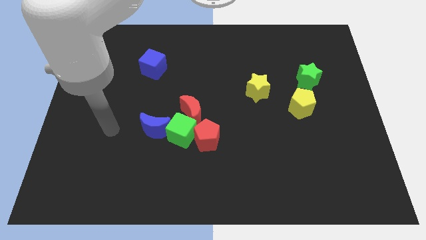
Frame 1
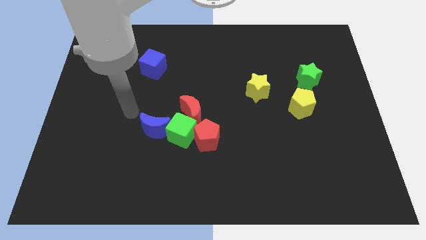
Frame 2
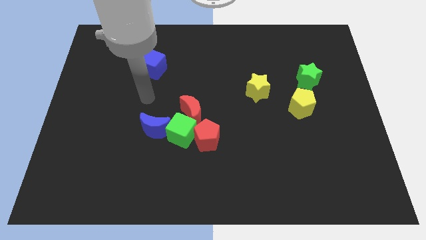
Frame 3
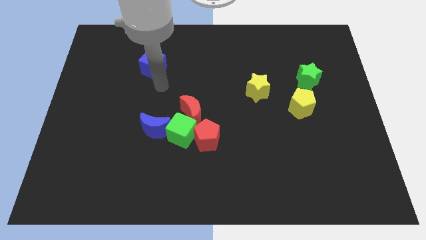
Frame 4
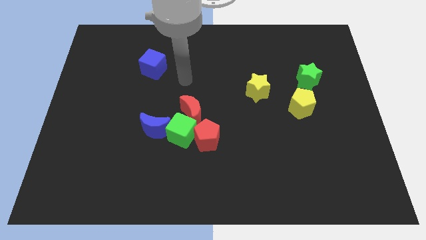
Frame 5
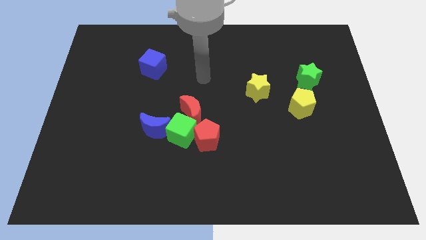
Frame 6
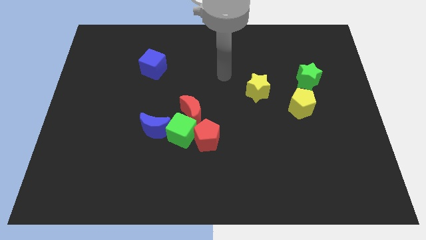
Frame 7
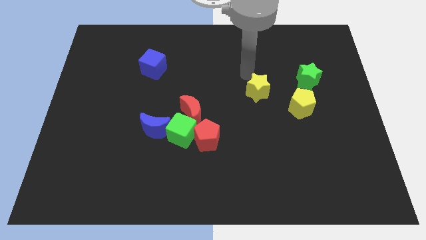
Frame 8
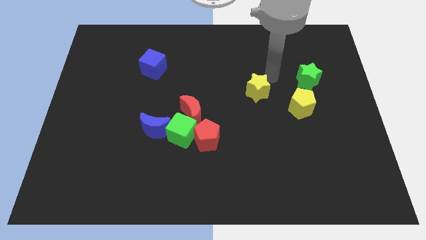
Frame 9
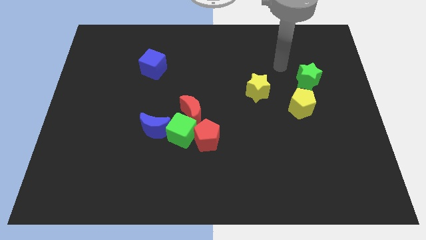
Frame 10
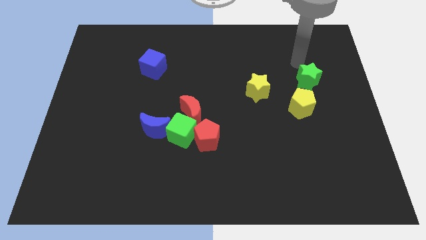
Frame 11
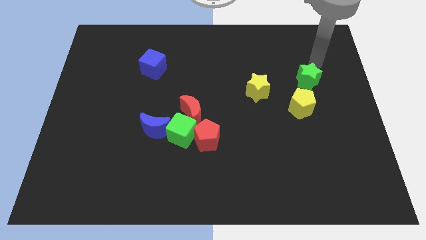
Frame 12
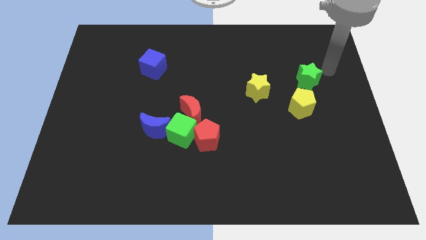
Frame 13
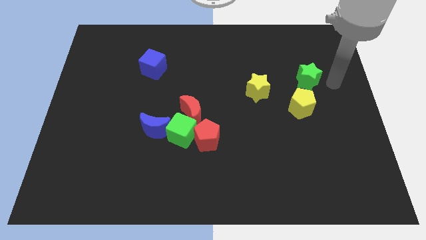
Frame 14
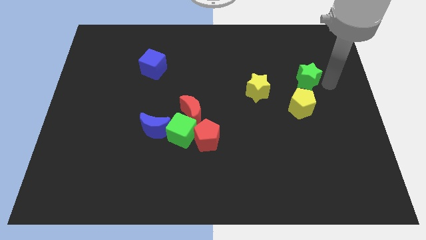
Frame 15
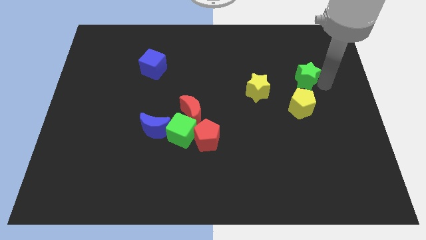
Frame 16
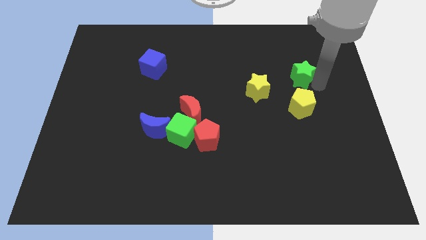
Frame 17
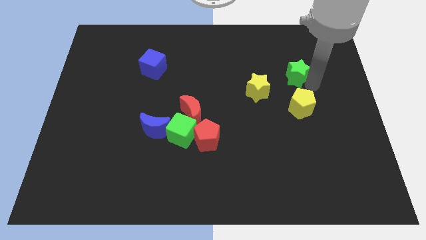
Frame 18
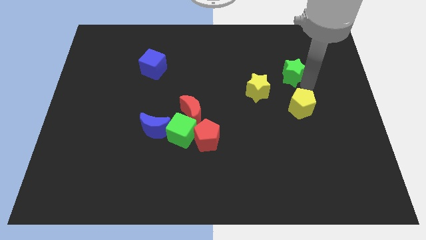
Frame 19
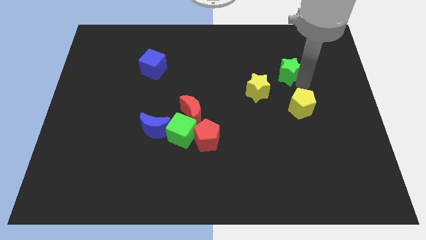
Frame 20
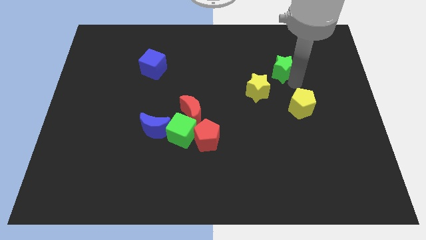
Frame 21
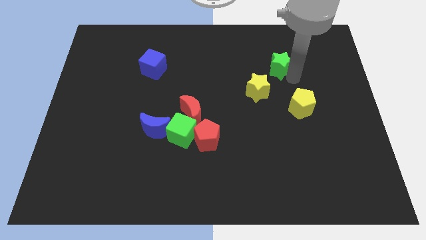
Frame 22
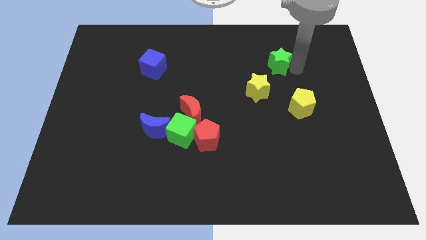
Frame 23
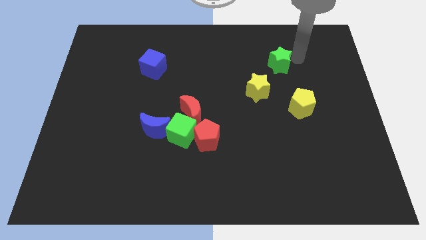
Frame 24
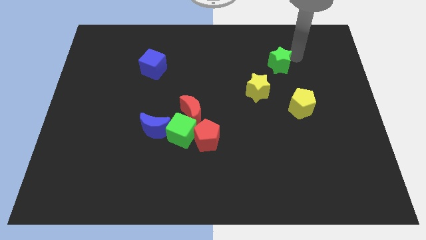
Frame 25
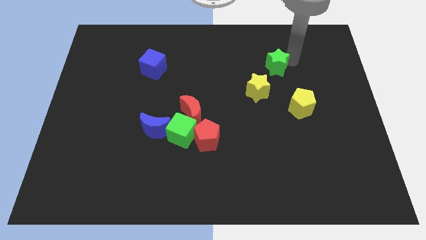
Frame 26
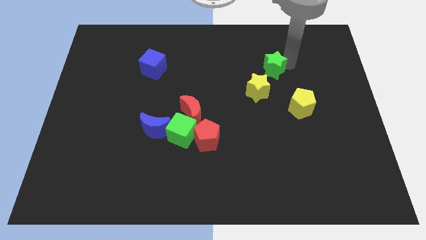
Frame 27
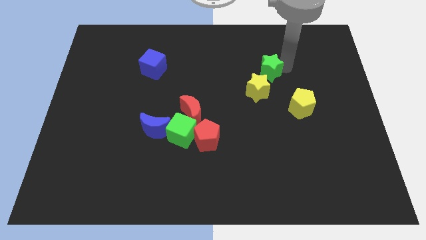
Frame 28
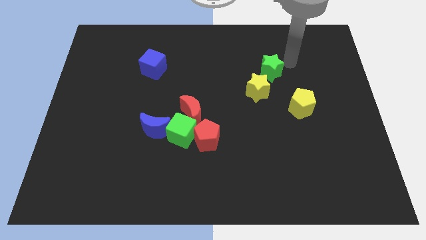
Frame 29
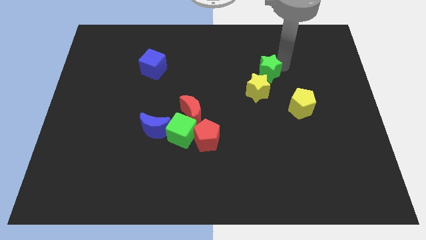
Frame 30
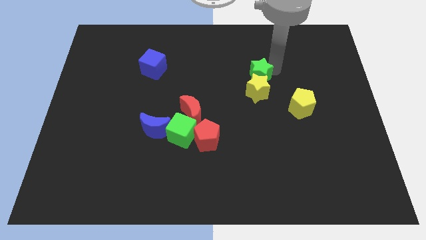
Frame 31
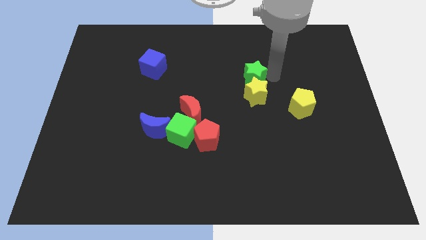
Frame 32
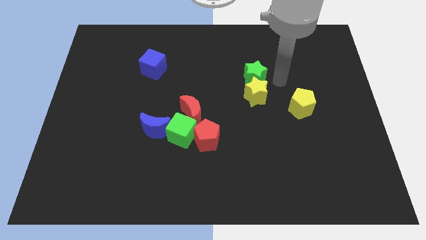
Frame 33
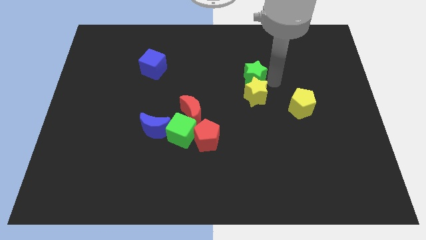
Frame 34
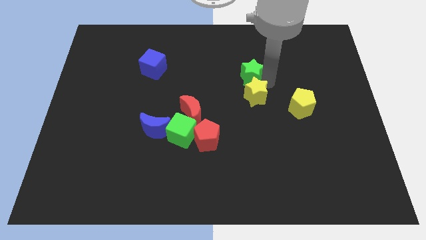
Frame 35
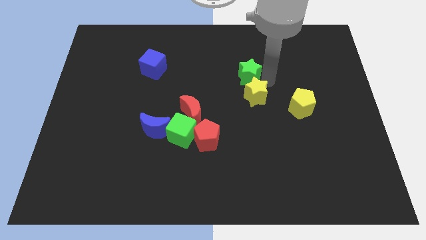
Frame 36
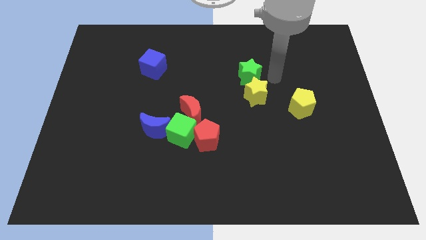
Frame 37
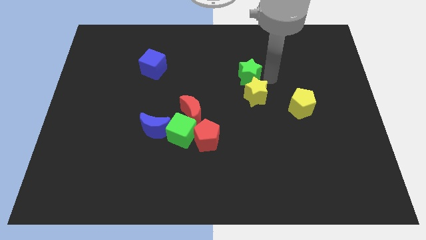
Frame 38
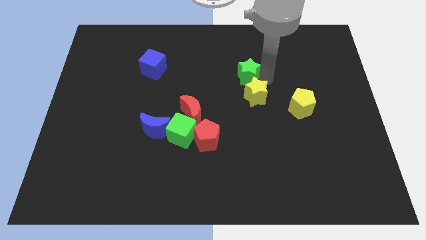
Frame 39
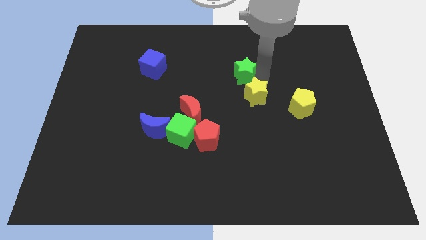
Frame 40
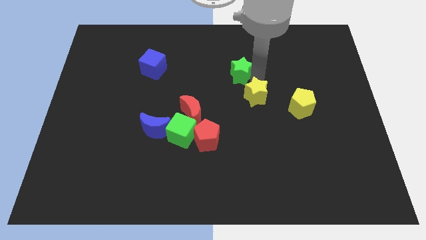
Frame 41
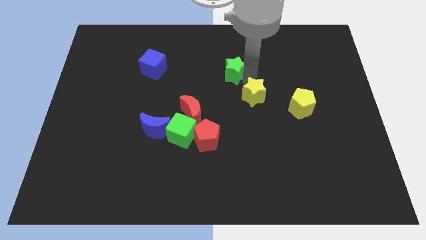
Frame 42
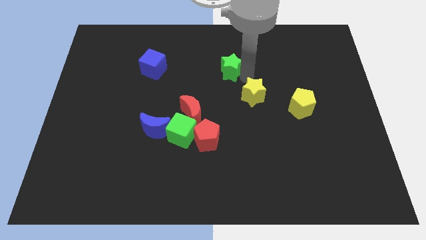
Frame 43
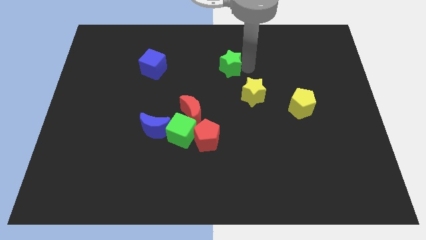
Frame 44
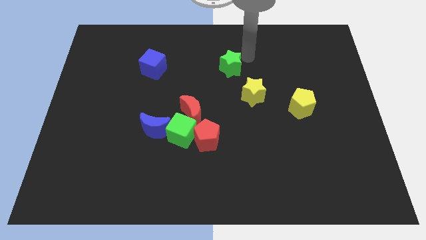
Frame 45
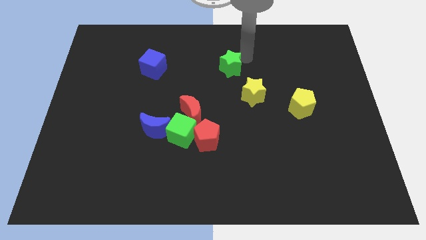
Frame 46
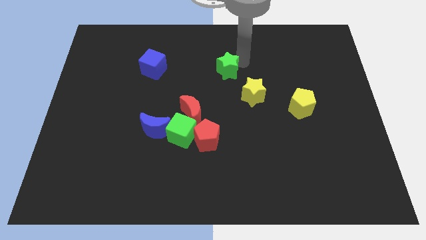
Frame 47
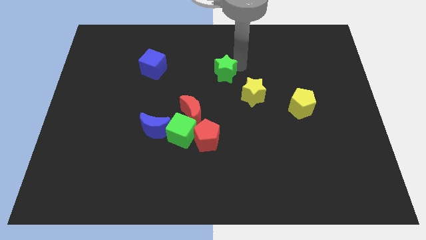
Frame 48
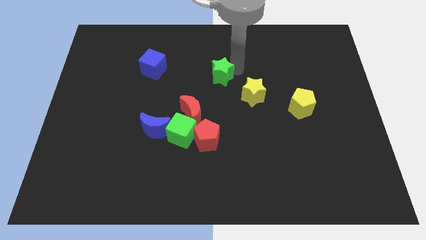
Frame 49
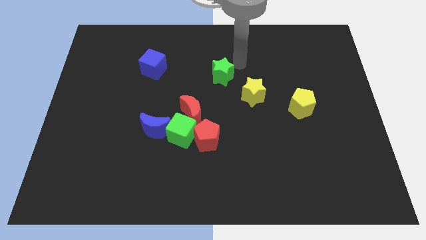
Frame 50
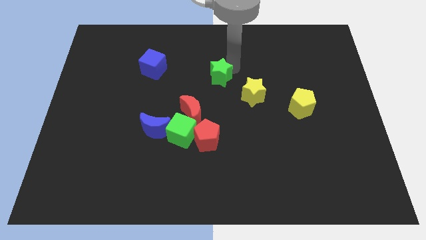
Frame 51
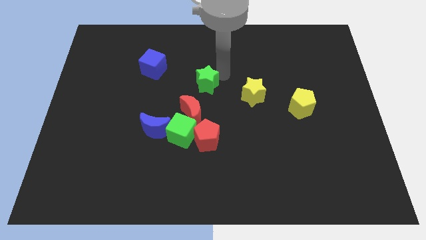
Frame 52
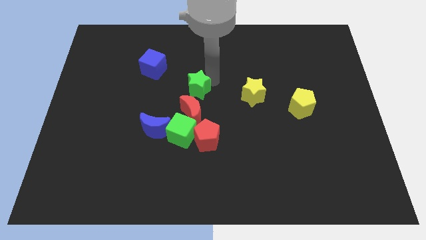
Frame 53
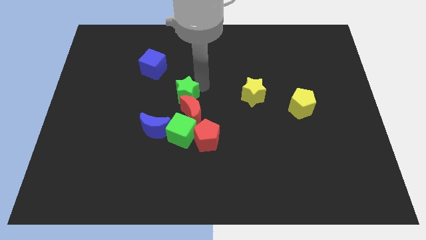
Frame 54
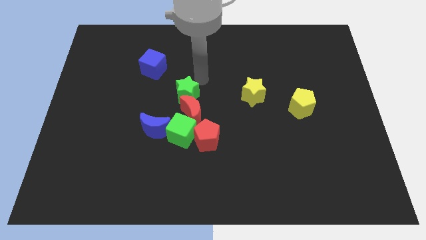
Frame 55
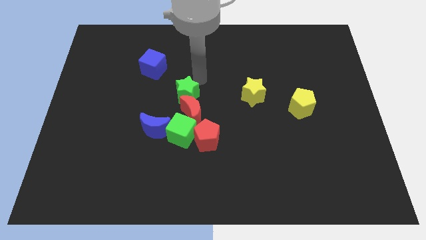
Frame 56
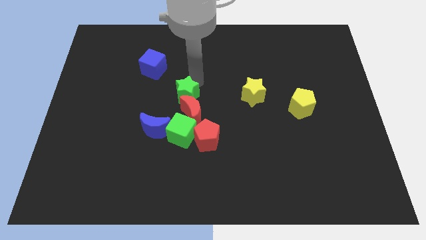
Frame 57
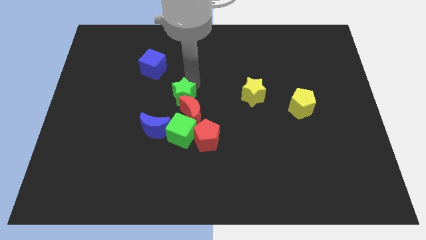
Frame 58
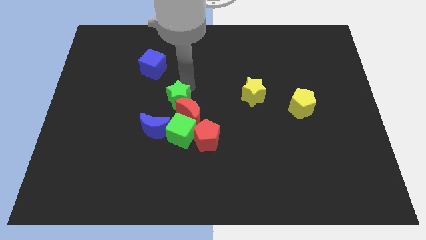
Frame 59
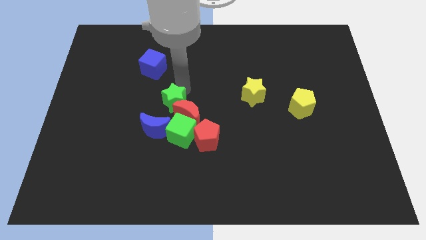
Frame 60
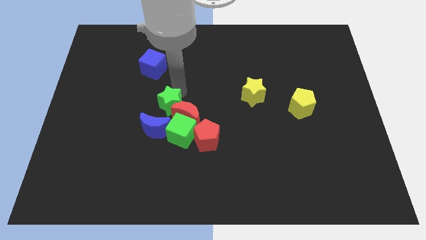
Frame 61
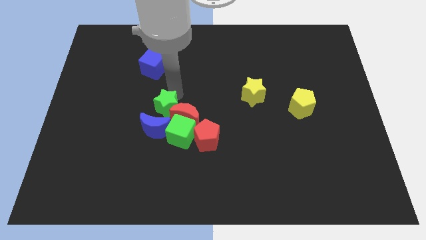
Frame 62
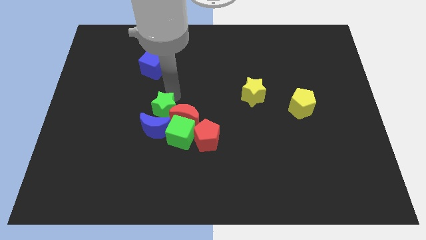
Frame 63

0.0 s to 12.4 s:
slide the green star next to the blue moon
